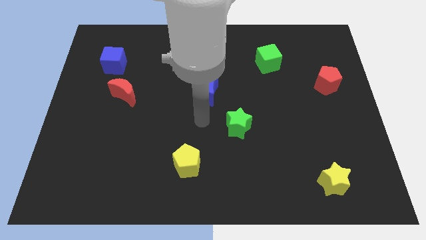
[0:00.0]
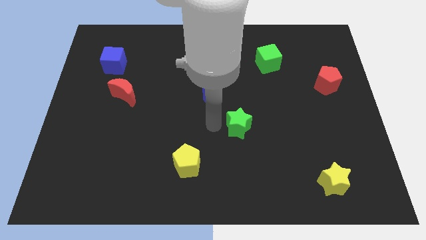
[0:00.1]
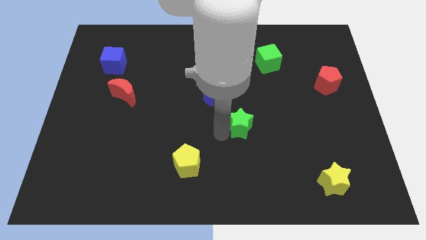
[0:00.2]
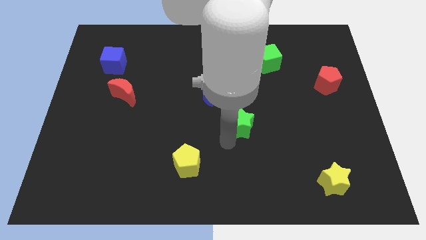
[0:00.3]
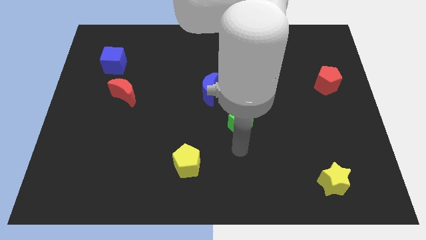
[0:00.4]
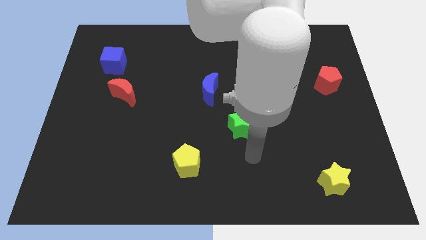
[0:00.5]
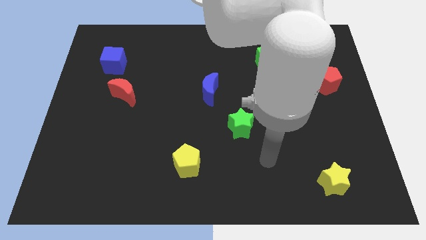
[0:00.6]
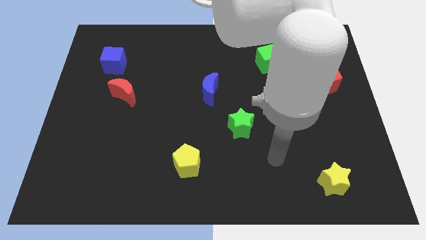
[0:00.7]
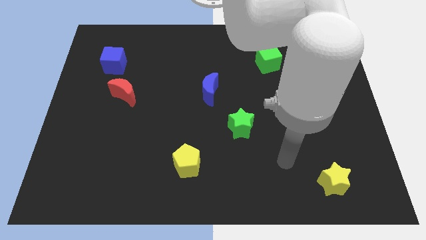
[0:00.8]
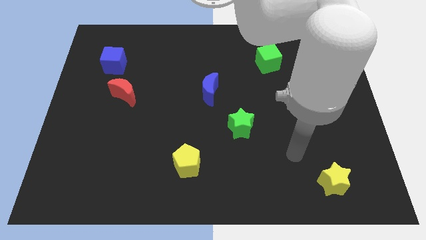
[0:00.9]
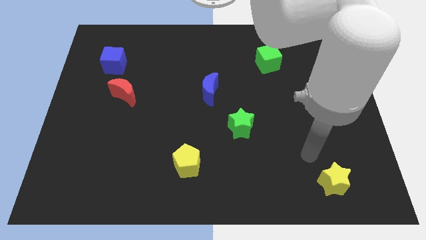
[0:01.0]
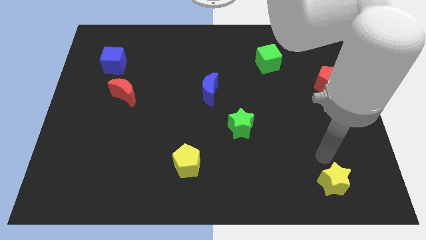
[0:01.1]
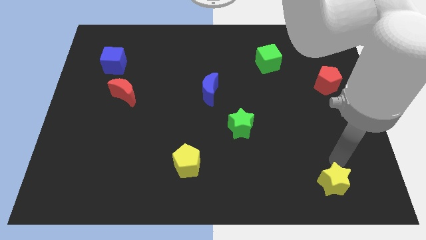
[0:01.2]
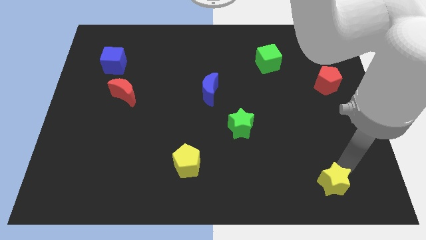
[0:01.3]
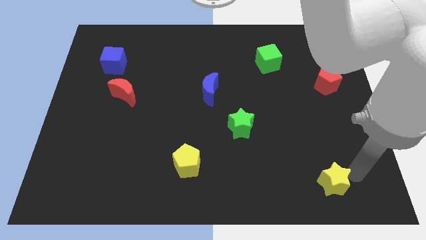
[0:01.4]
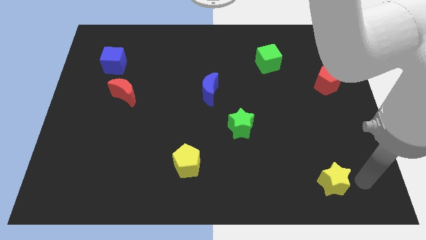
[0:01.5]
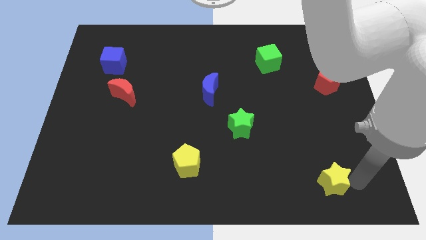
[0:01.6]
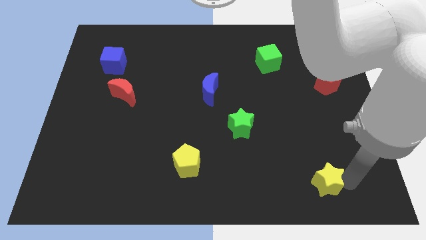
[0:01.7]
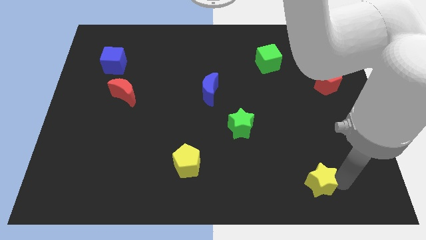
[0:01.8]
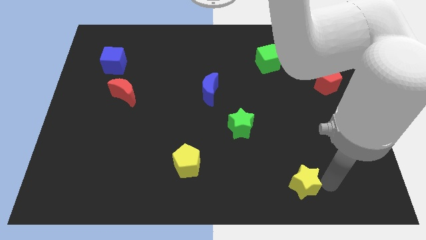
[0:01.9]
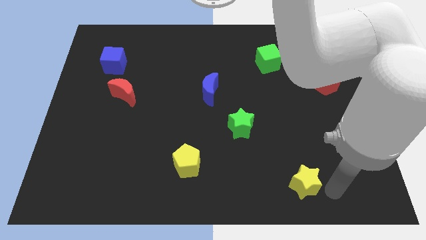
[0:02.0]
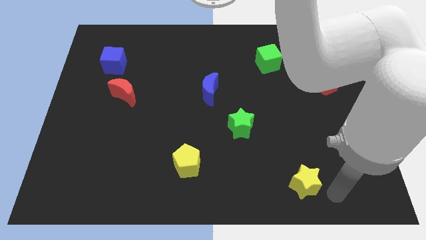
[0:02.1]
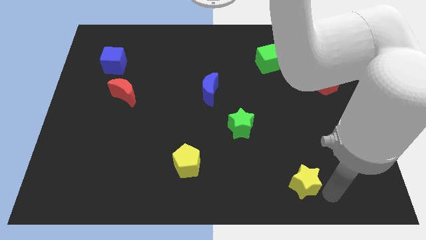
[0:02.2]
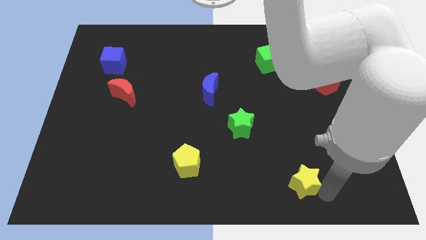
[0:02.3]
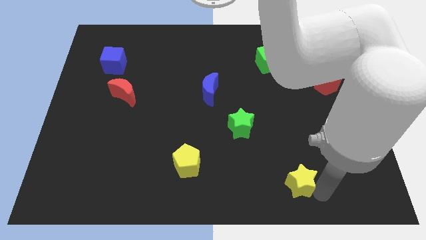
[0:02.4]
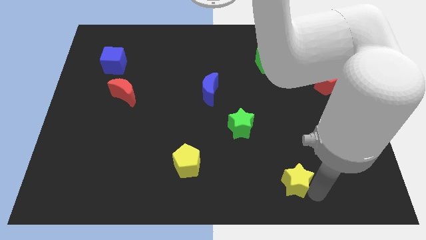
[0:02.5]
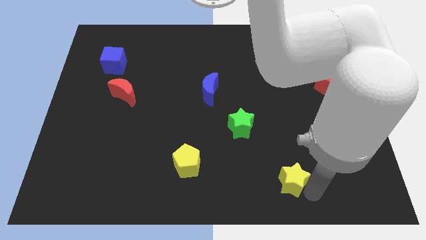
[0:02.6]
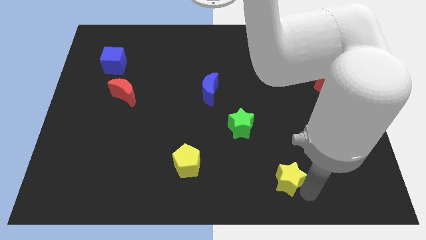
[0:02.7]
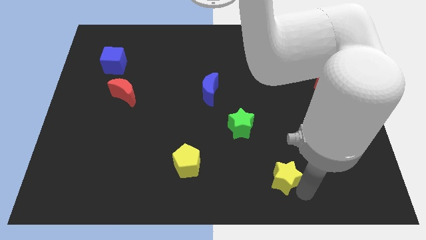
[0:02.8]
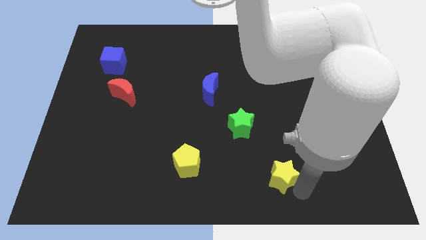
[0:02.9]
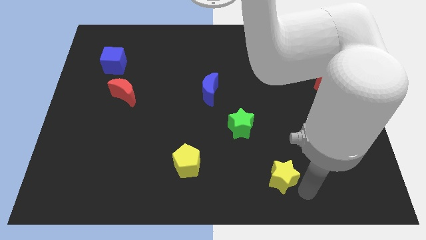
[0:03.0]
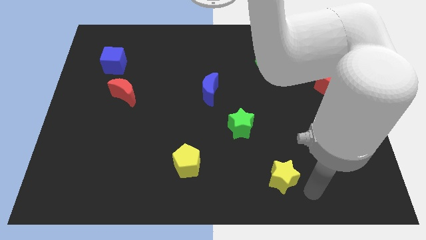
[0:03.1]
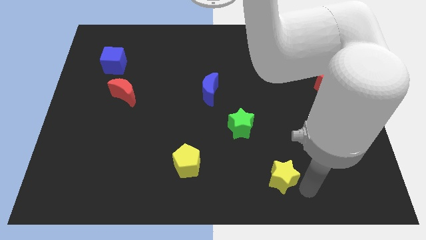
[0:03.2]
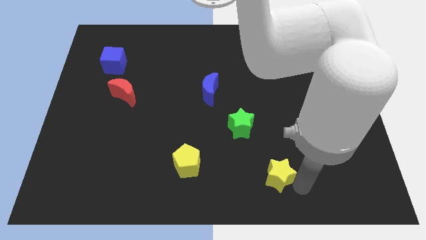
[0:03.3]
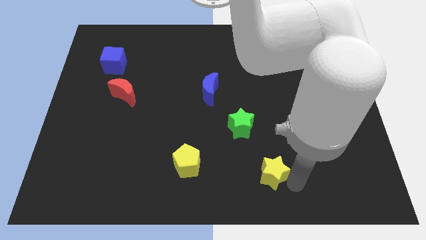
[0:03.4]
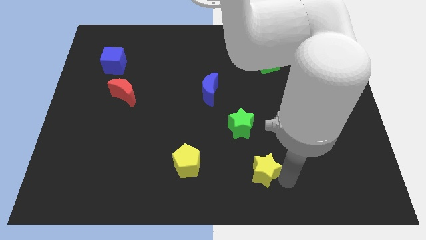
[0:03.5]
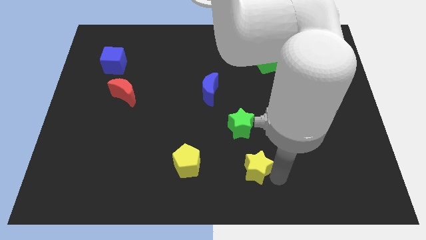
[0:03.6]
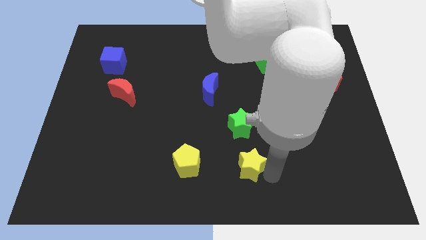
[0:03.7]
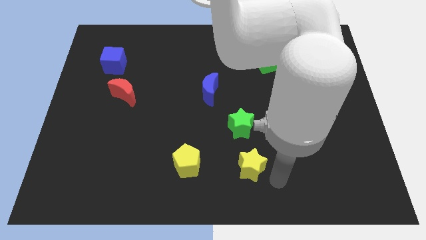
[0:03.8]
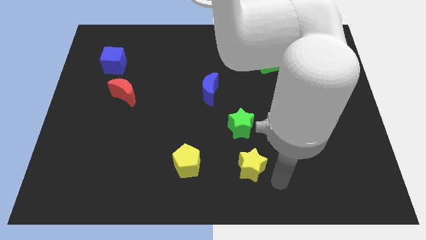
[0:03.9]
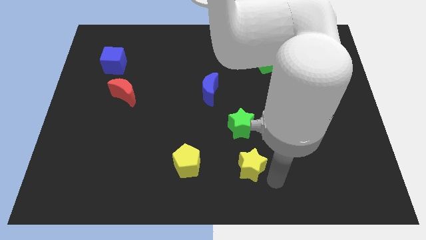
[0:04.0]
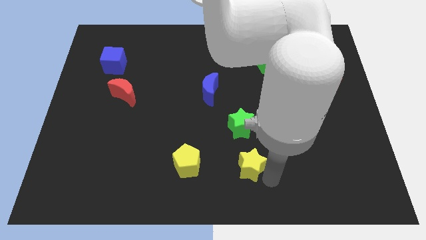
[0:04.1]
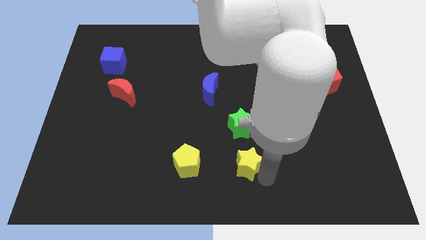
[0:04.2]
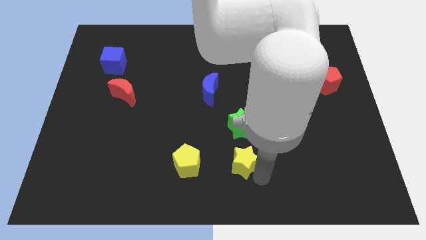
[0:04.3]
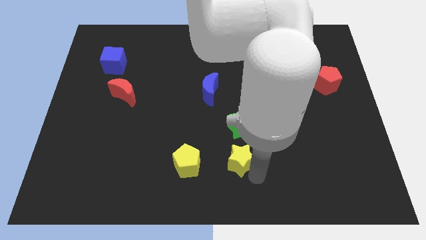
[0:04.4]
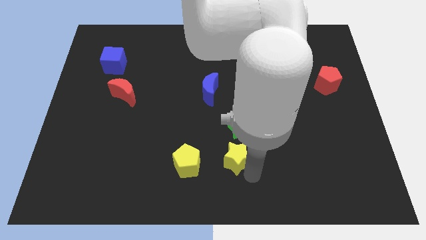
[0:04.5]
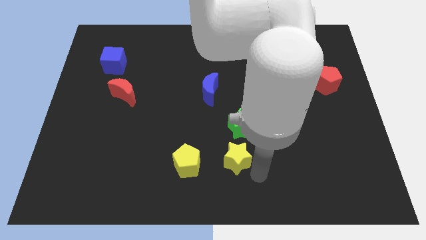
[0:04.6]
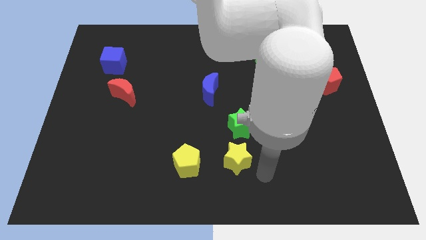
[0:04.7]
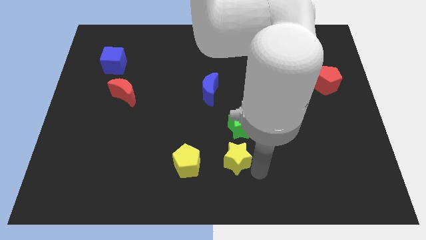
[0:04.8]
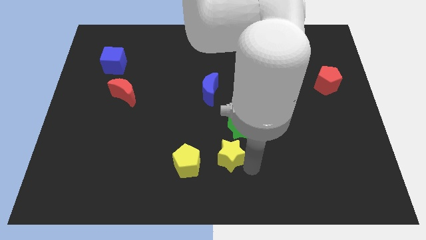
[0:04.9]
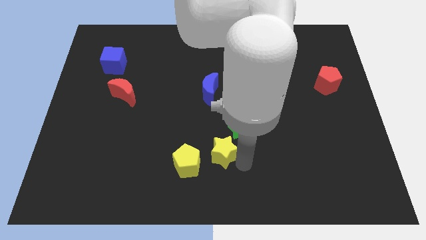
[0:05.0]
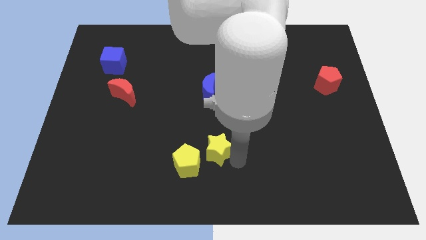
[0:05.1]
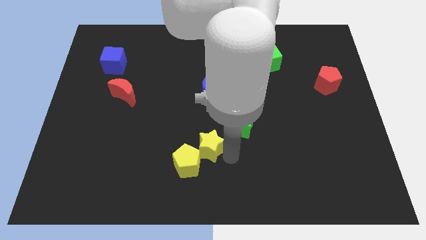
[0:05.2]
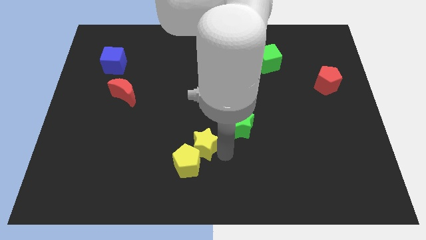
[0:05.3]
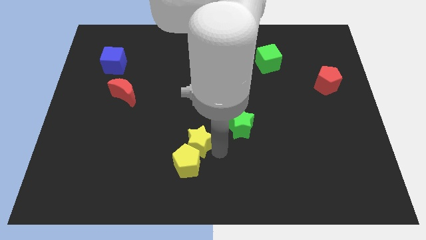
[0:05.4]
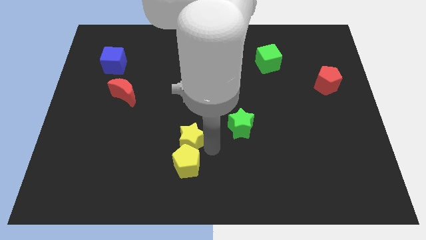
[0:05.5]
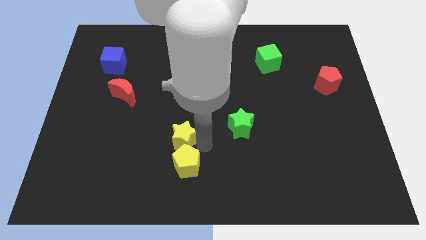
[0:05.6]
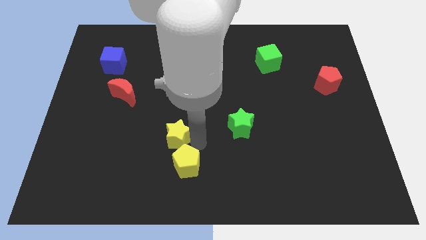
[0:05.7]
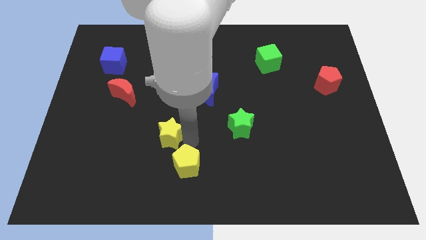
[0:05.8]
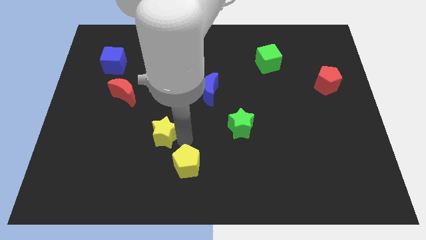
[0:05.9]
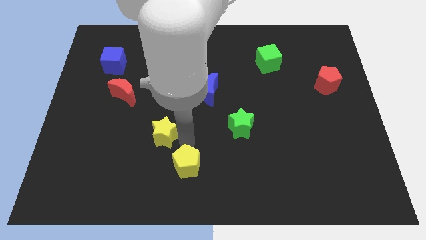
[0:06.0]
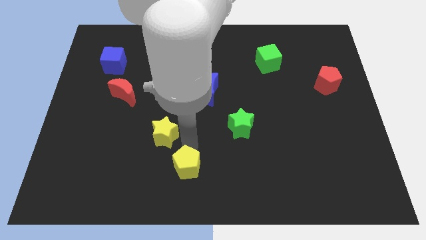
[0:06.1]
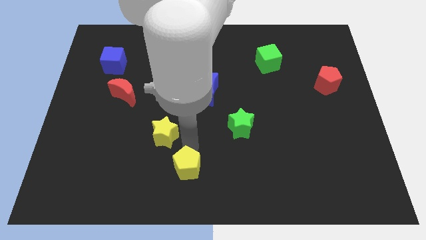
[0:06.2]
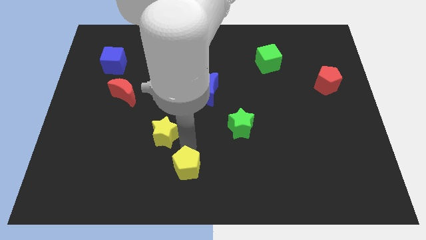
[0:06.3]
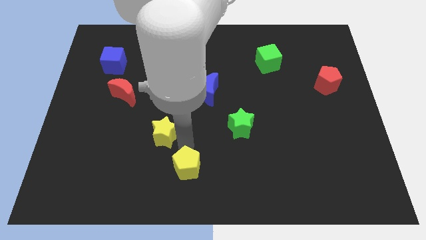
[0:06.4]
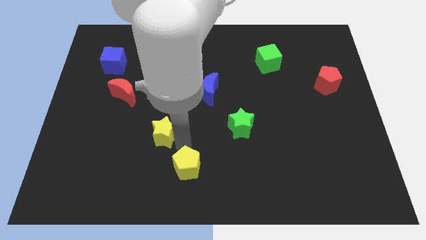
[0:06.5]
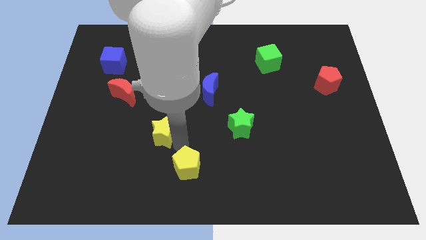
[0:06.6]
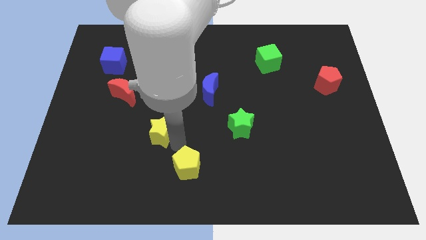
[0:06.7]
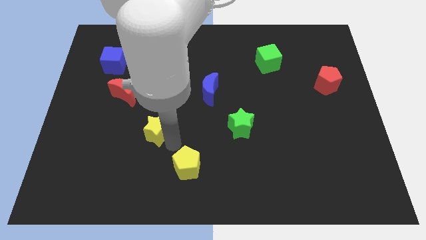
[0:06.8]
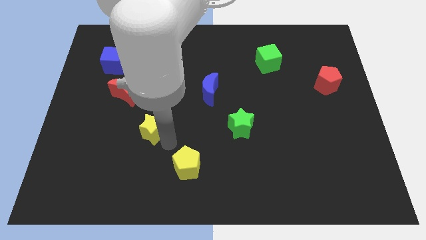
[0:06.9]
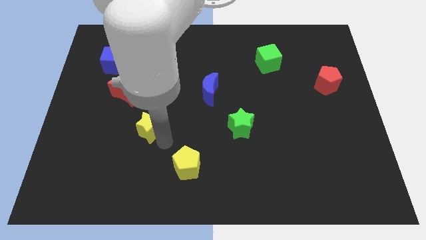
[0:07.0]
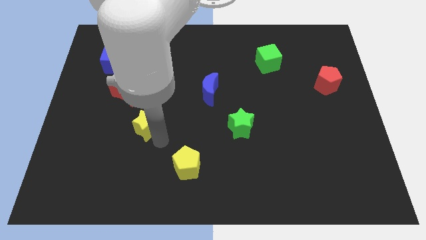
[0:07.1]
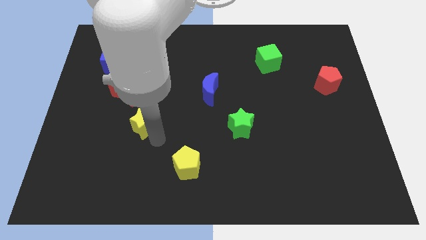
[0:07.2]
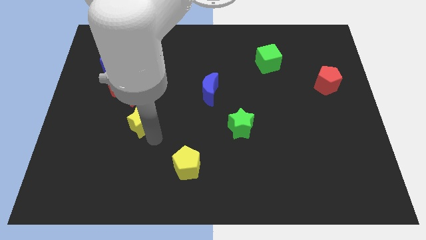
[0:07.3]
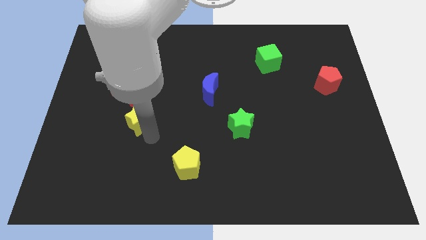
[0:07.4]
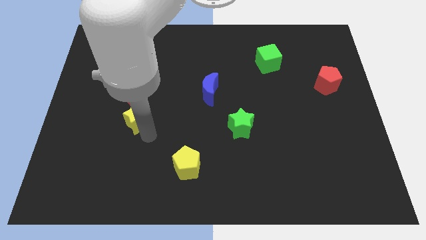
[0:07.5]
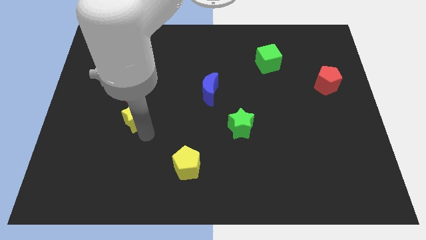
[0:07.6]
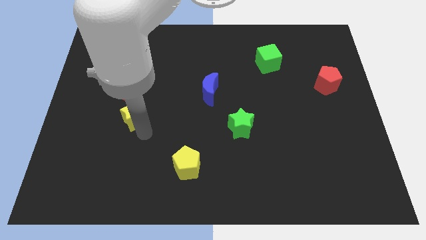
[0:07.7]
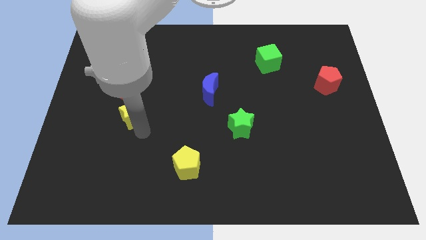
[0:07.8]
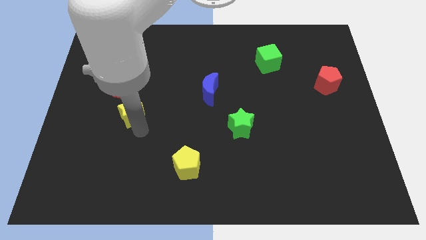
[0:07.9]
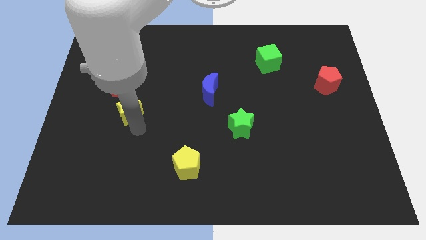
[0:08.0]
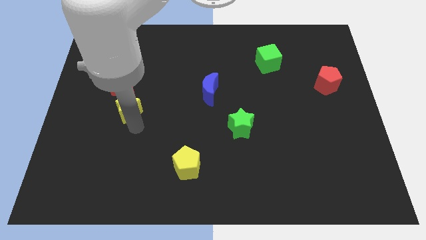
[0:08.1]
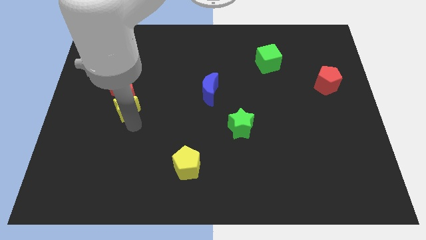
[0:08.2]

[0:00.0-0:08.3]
put the yellow star towards the red moon
